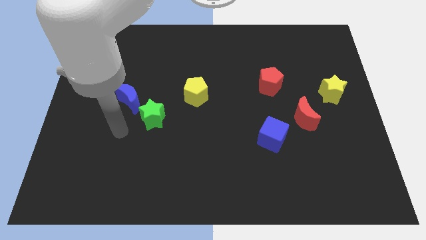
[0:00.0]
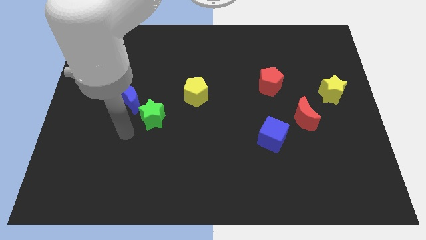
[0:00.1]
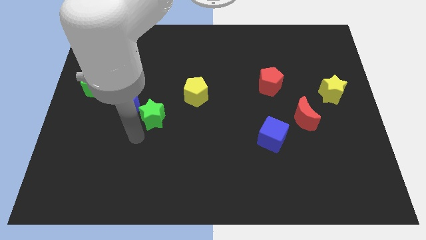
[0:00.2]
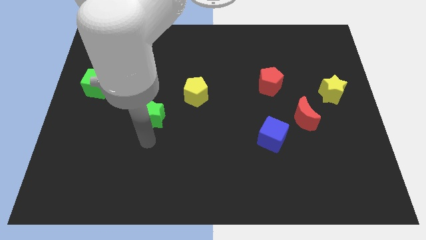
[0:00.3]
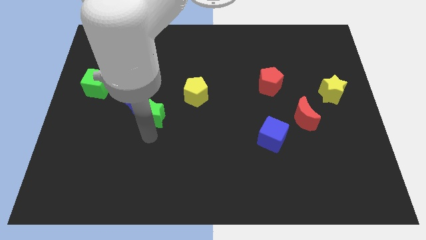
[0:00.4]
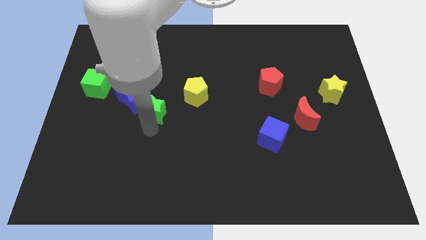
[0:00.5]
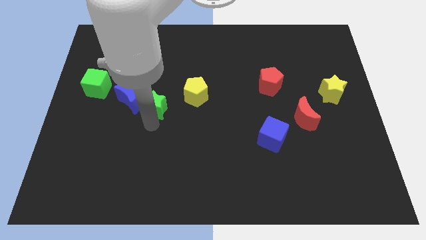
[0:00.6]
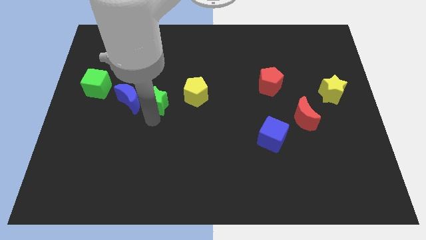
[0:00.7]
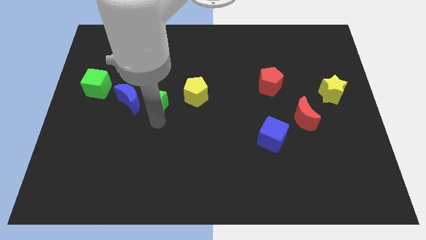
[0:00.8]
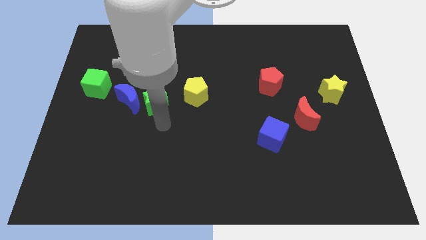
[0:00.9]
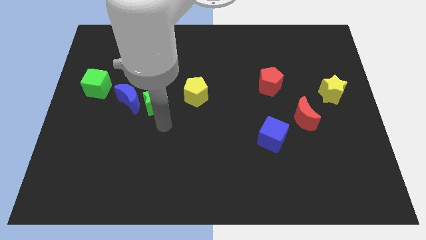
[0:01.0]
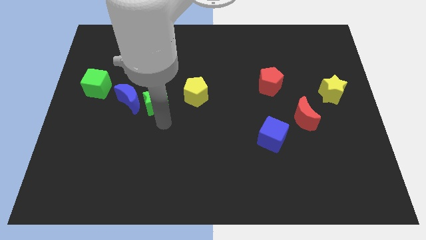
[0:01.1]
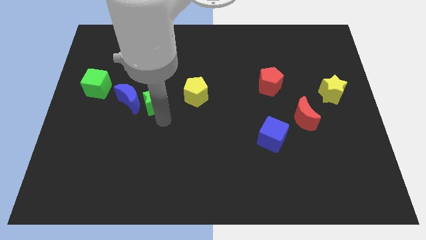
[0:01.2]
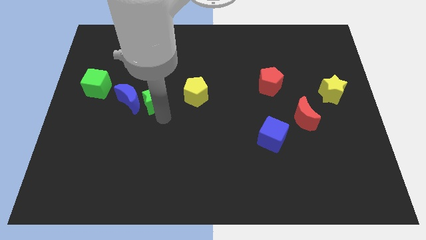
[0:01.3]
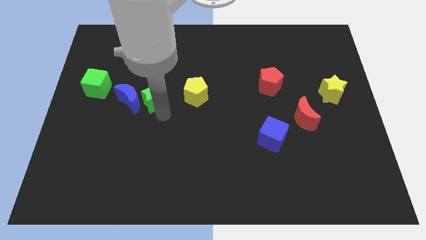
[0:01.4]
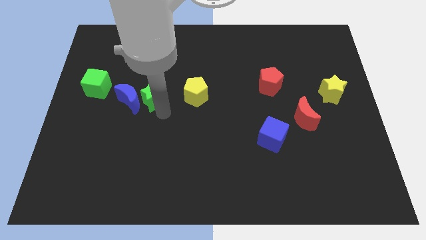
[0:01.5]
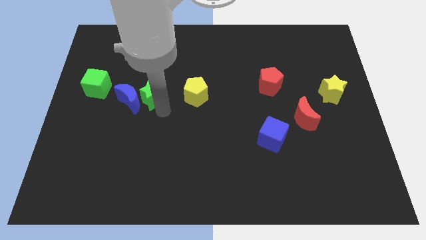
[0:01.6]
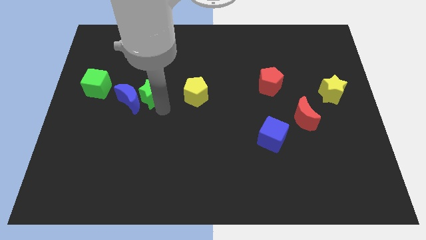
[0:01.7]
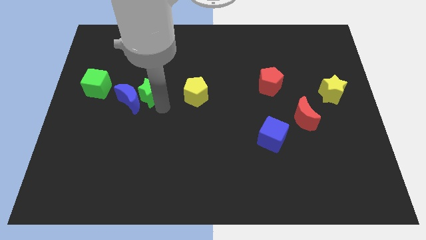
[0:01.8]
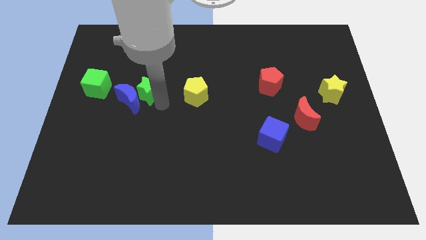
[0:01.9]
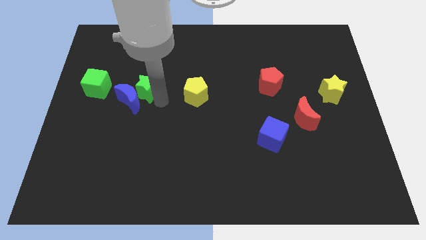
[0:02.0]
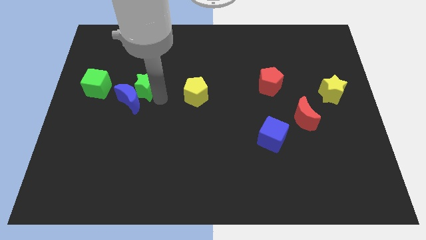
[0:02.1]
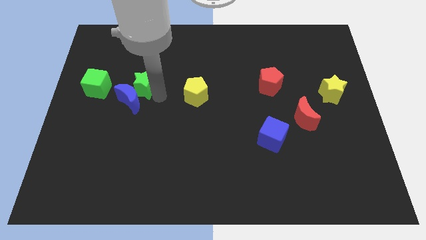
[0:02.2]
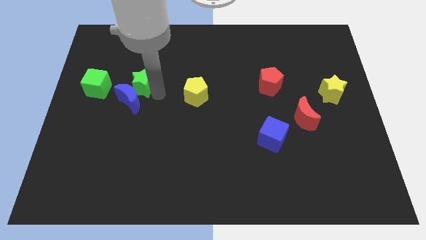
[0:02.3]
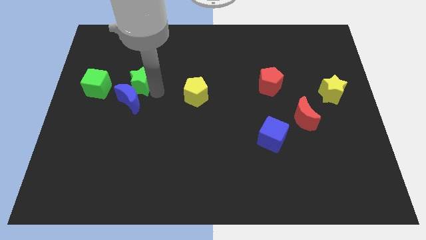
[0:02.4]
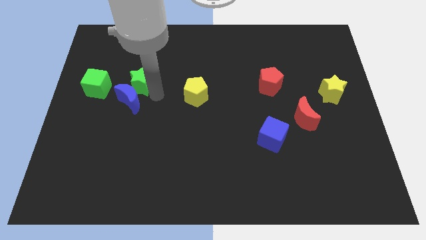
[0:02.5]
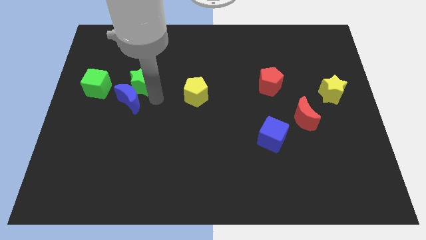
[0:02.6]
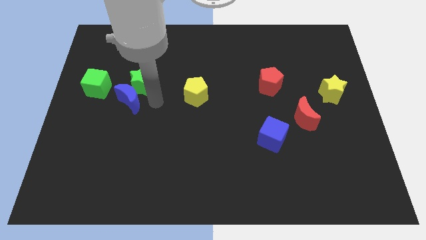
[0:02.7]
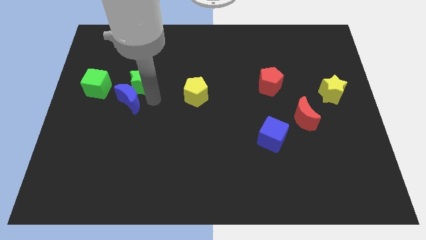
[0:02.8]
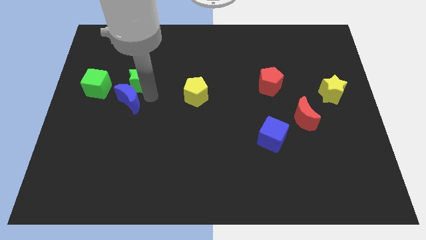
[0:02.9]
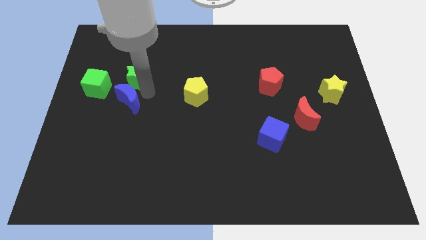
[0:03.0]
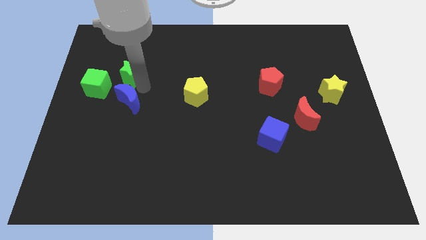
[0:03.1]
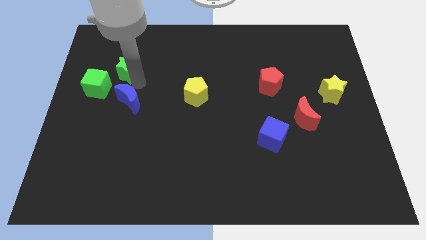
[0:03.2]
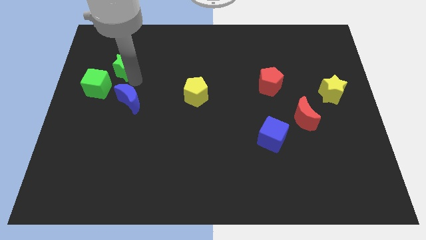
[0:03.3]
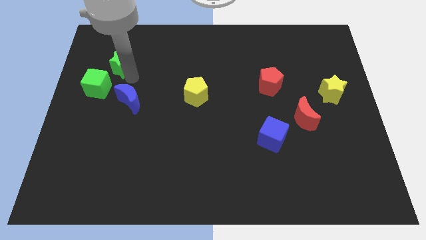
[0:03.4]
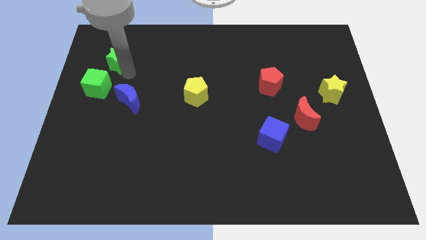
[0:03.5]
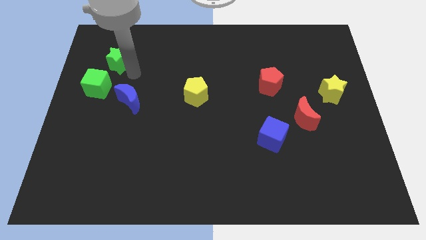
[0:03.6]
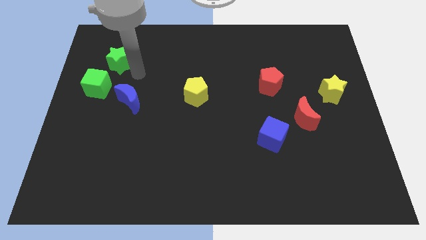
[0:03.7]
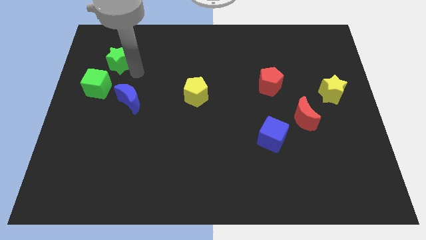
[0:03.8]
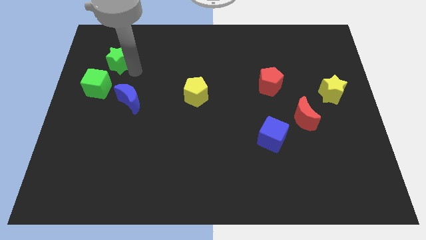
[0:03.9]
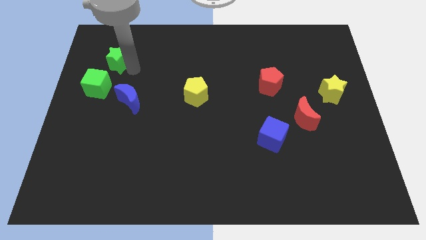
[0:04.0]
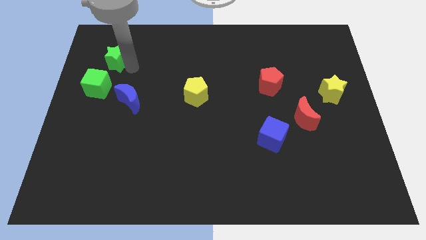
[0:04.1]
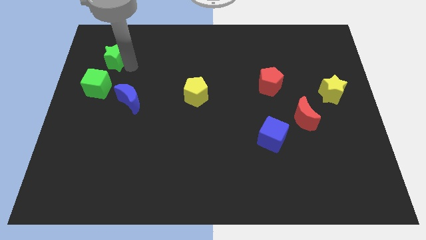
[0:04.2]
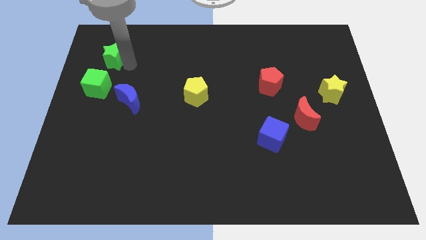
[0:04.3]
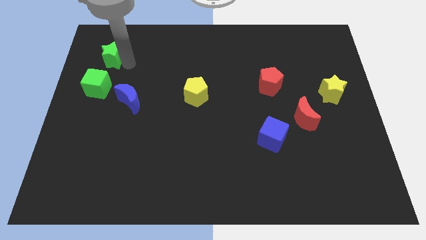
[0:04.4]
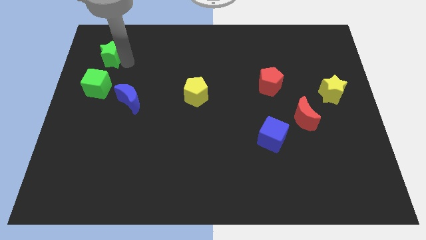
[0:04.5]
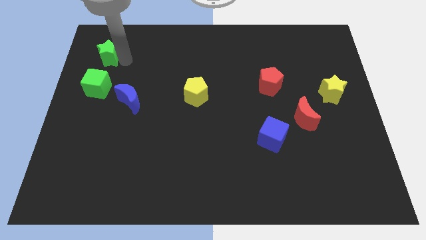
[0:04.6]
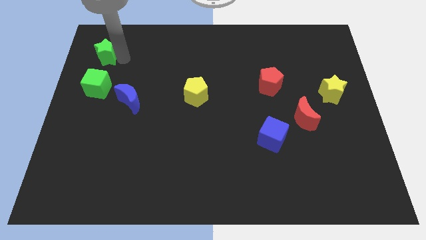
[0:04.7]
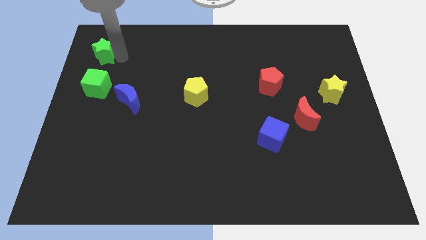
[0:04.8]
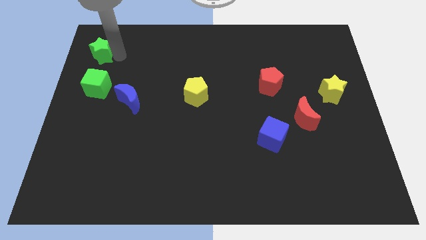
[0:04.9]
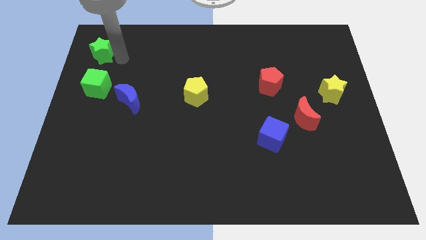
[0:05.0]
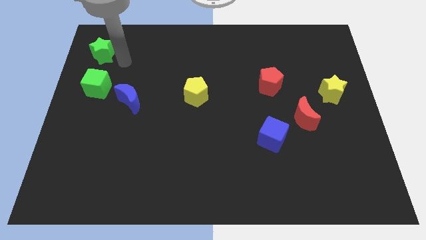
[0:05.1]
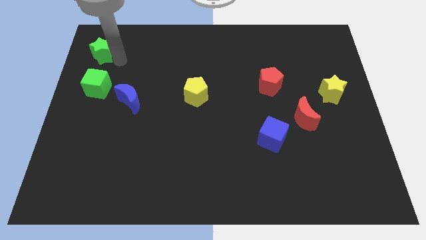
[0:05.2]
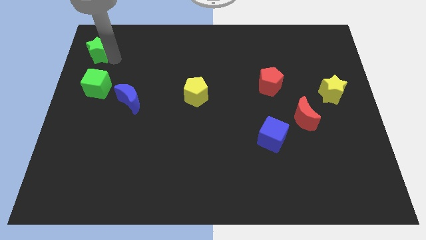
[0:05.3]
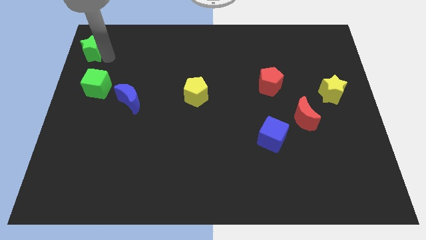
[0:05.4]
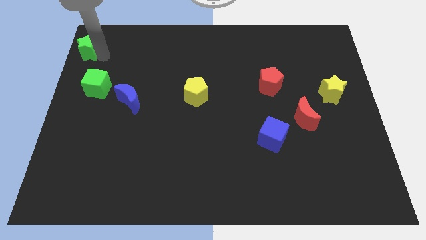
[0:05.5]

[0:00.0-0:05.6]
move the green star to the top left

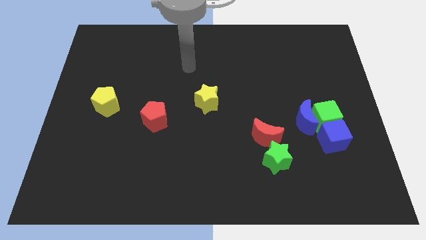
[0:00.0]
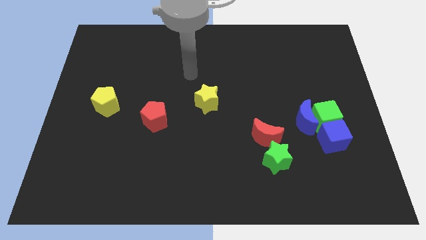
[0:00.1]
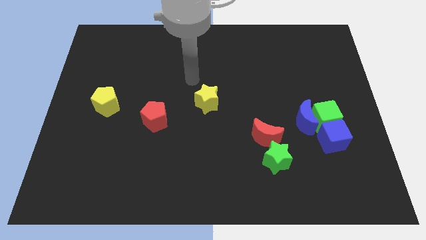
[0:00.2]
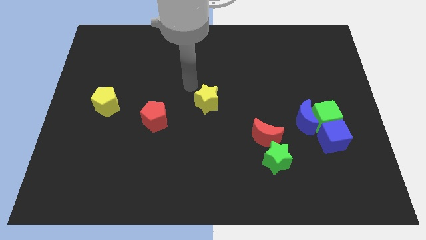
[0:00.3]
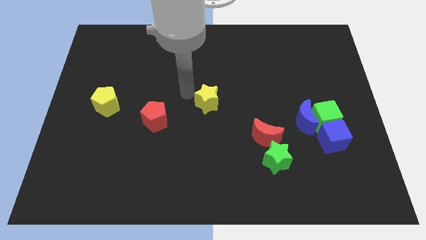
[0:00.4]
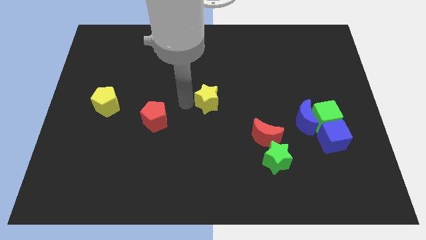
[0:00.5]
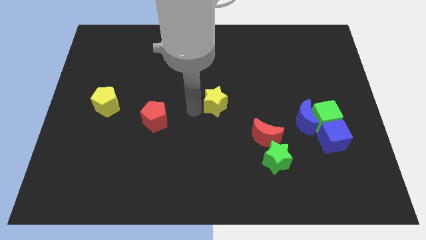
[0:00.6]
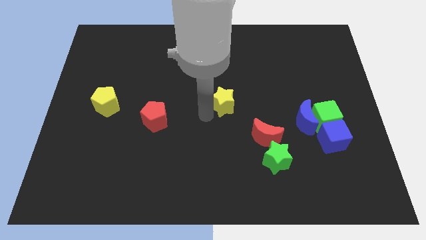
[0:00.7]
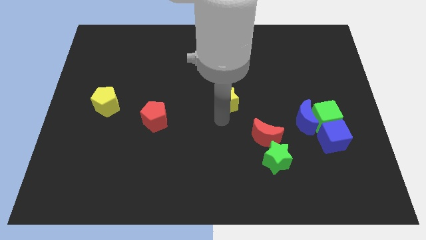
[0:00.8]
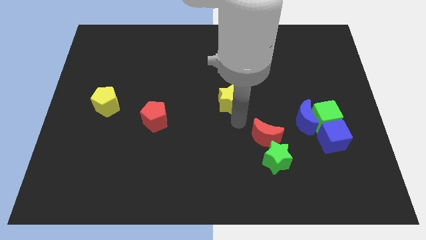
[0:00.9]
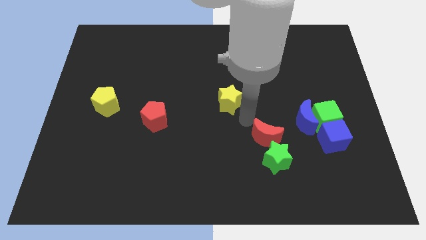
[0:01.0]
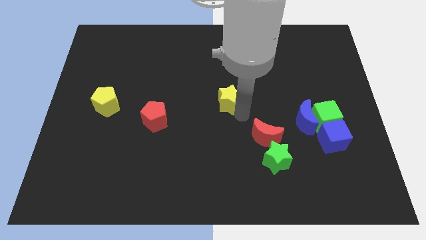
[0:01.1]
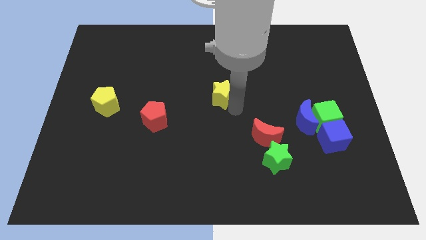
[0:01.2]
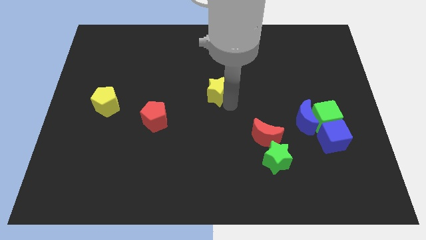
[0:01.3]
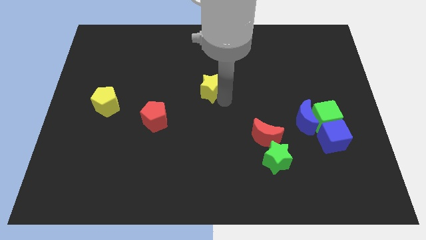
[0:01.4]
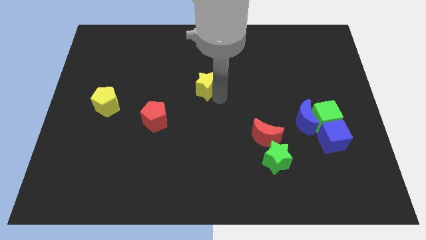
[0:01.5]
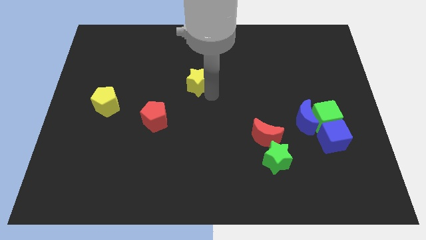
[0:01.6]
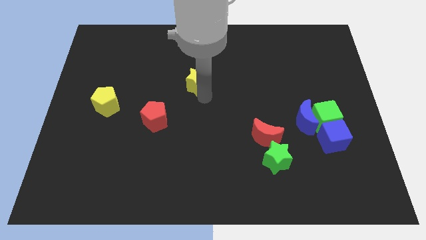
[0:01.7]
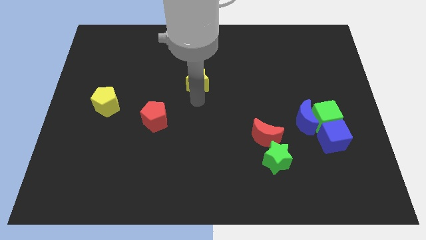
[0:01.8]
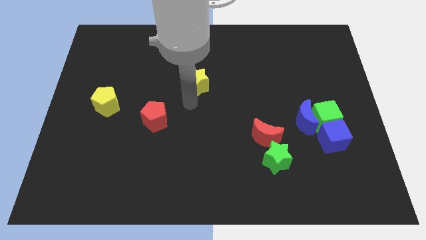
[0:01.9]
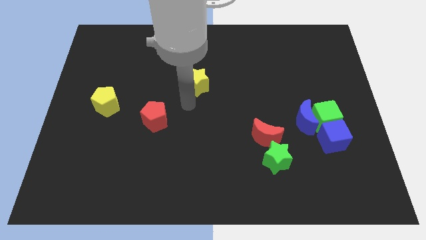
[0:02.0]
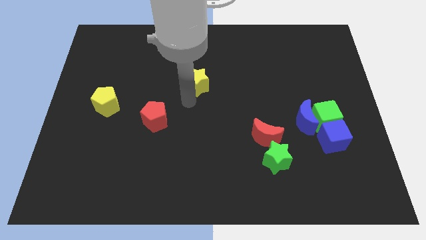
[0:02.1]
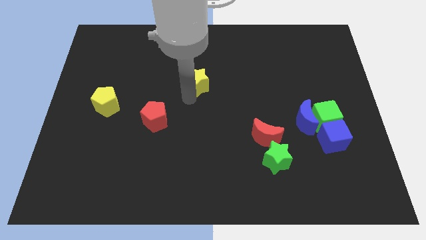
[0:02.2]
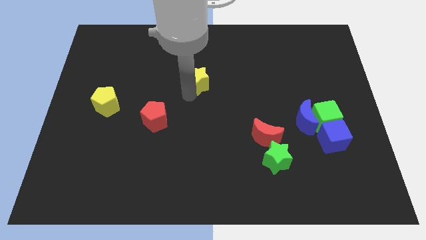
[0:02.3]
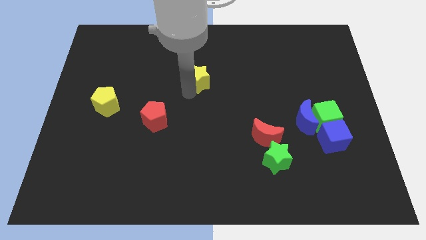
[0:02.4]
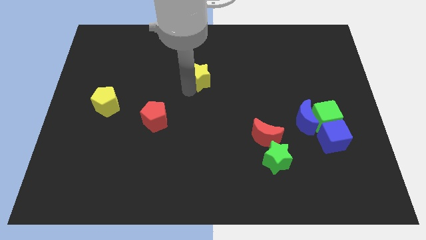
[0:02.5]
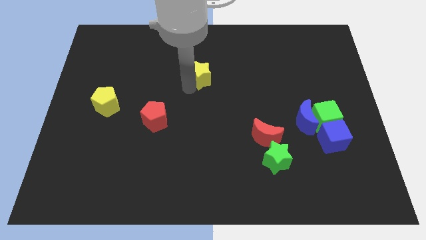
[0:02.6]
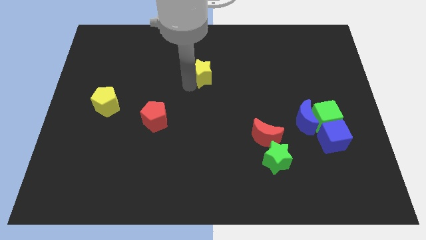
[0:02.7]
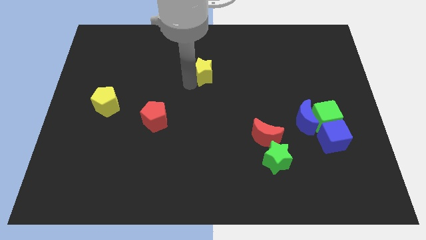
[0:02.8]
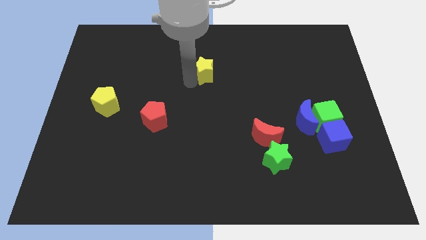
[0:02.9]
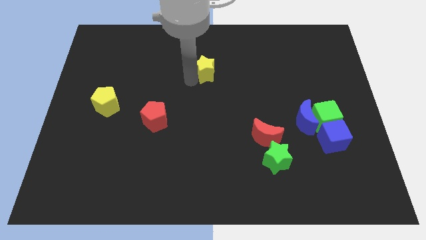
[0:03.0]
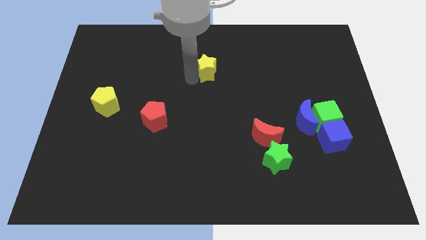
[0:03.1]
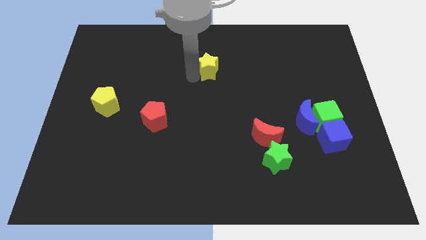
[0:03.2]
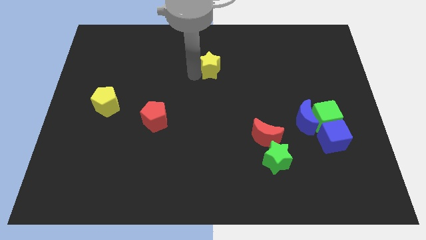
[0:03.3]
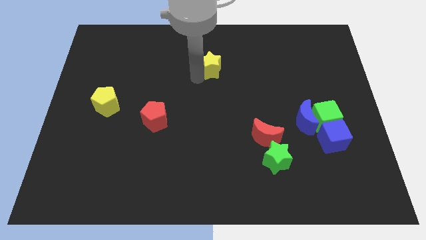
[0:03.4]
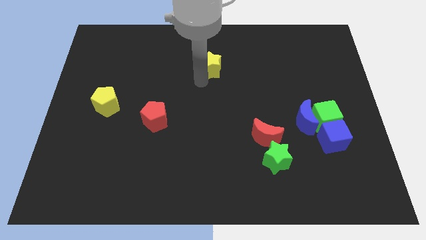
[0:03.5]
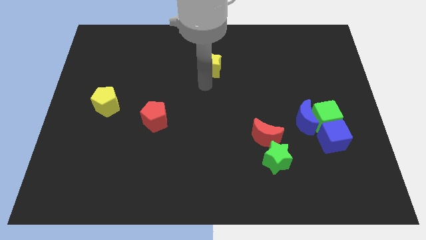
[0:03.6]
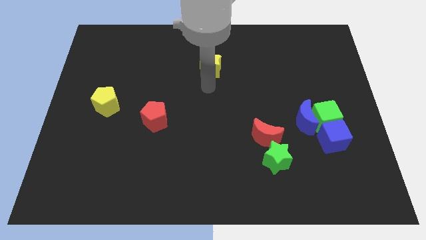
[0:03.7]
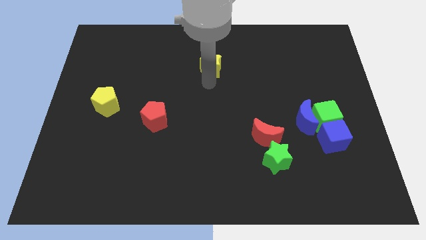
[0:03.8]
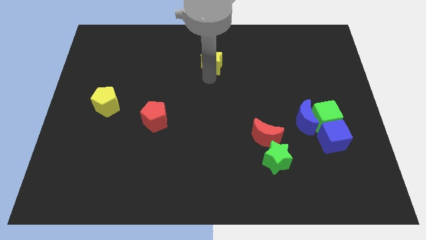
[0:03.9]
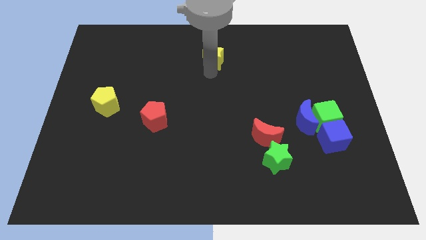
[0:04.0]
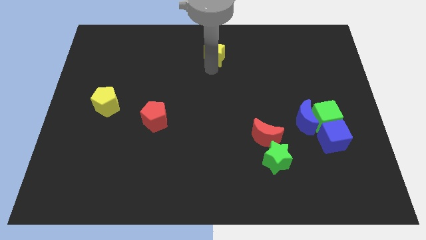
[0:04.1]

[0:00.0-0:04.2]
push the yellow star to the top side
